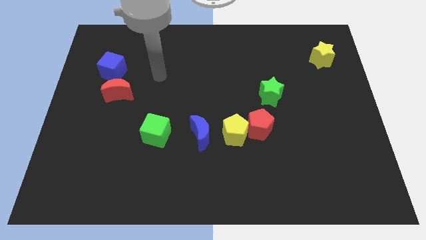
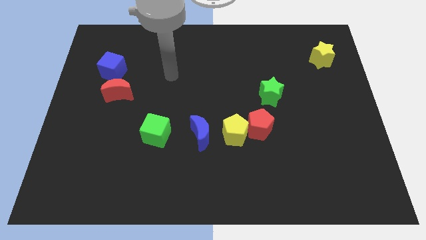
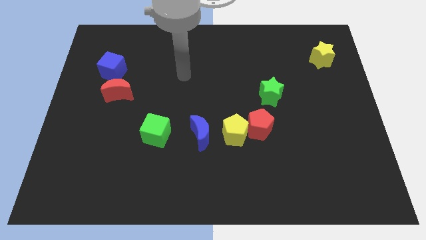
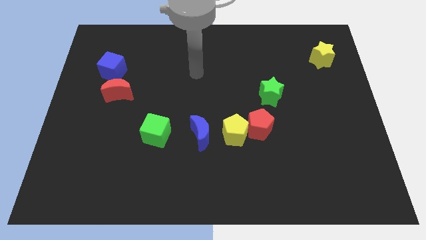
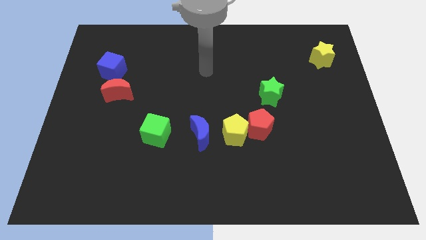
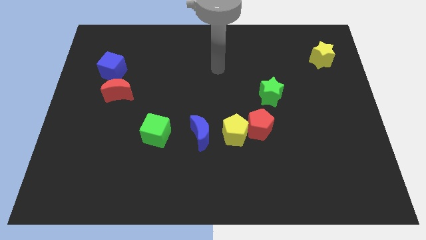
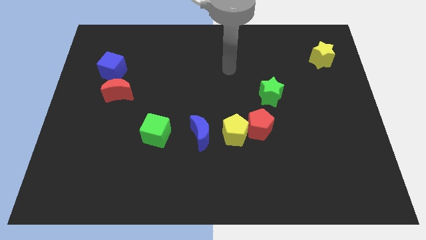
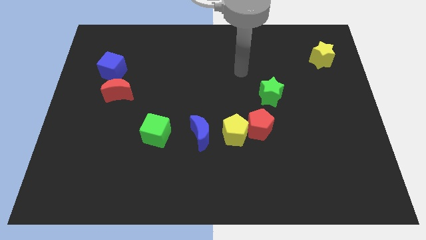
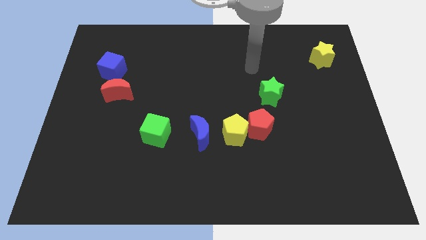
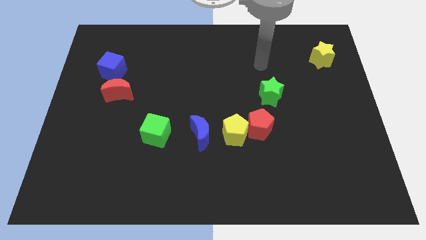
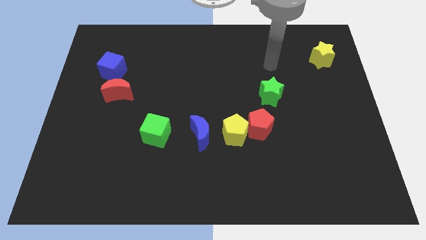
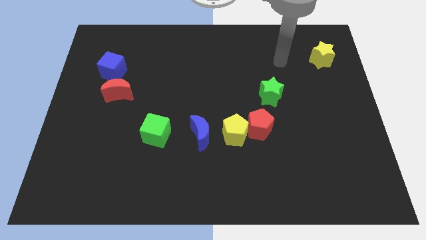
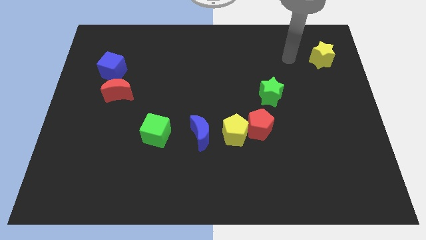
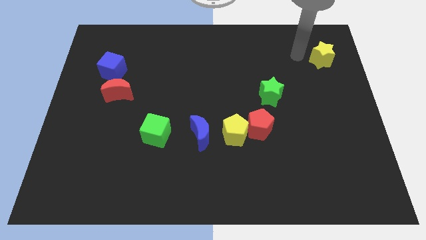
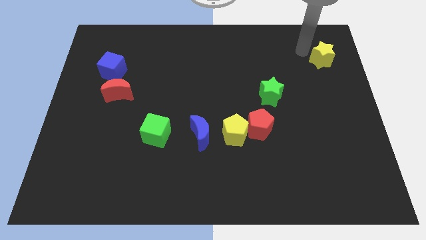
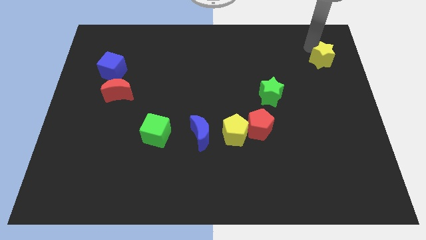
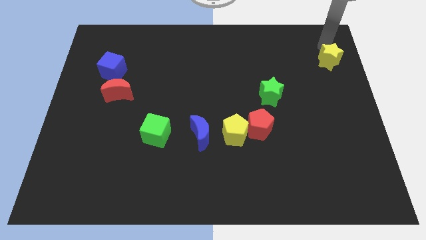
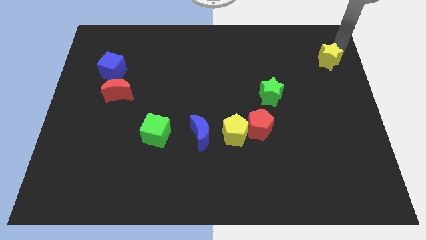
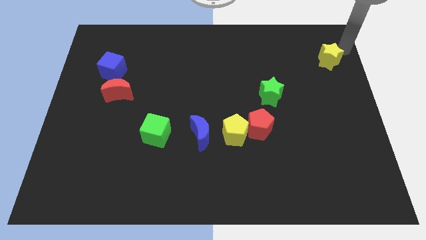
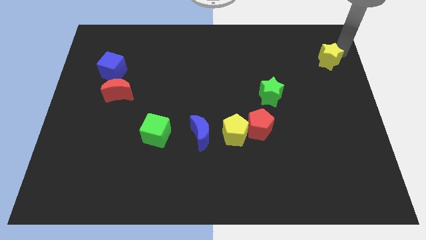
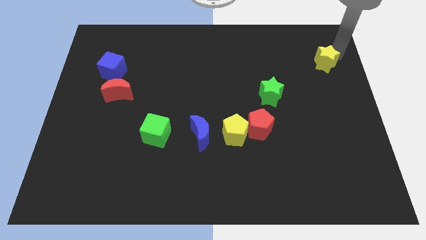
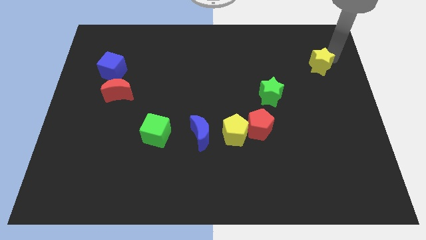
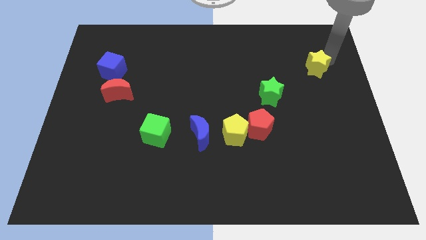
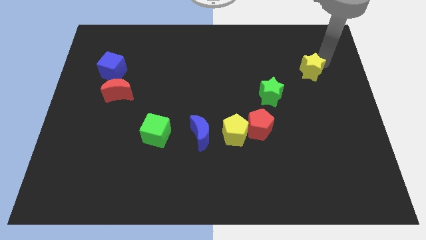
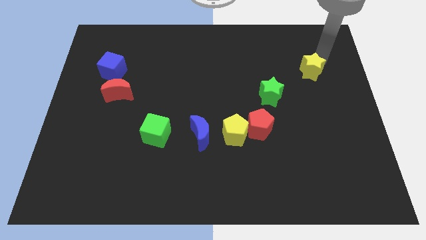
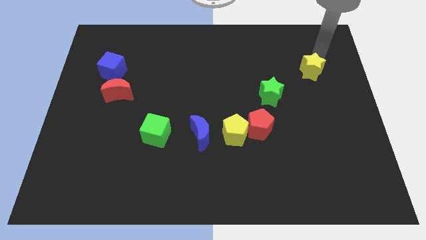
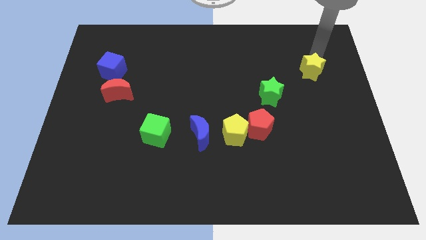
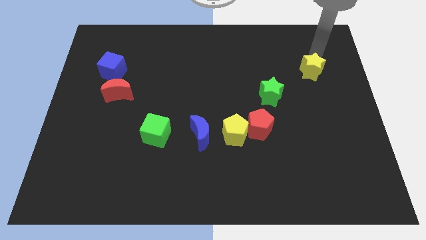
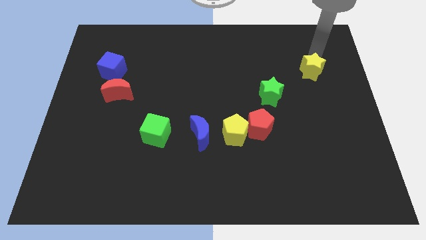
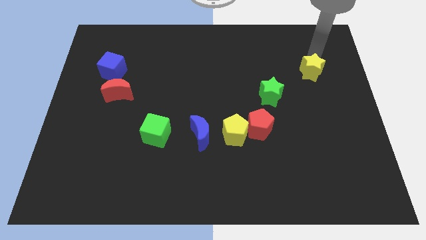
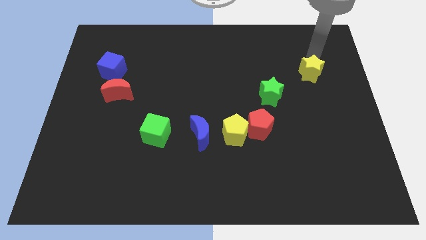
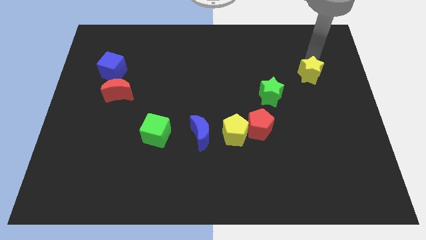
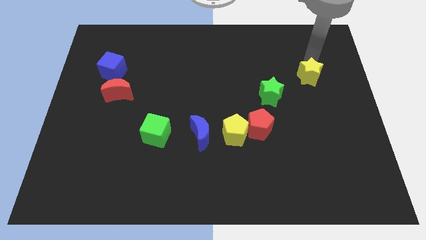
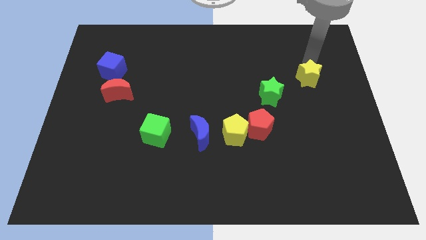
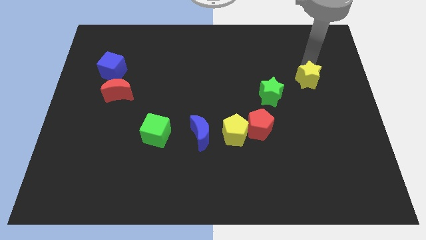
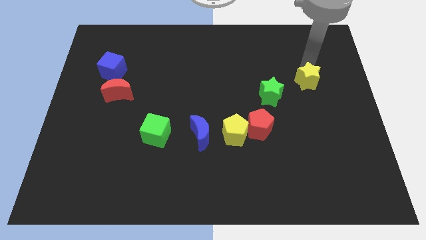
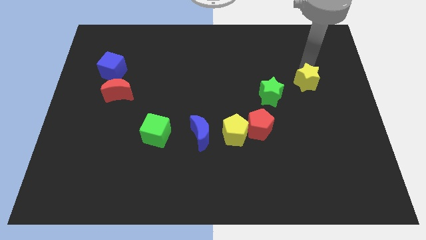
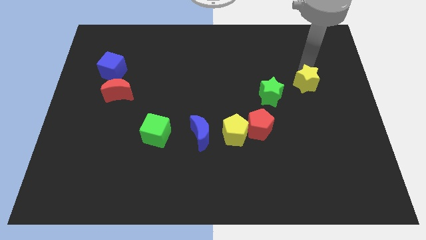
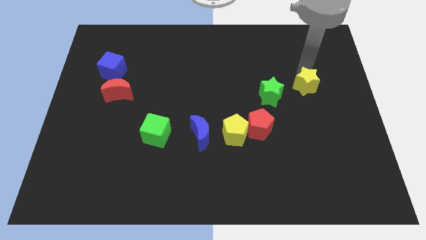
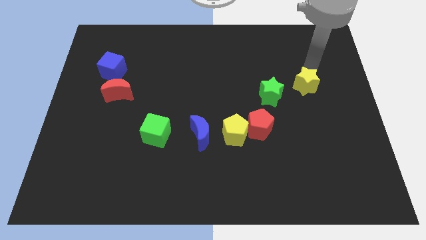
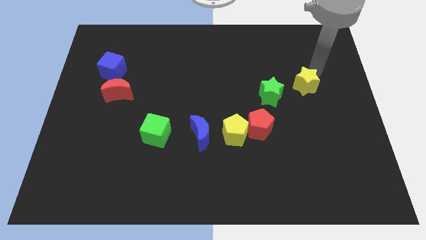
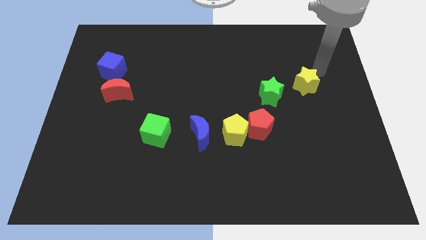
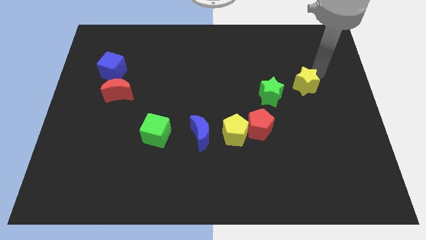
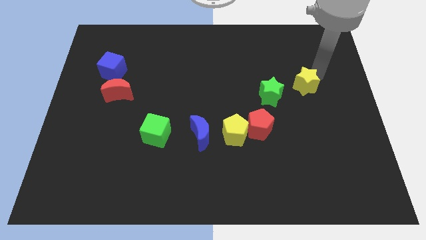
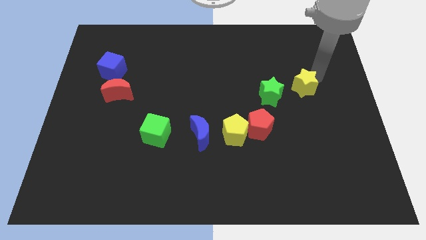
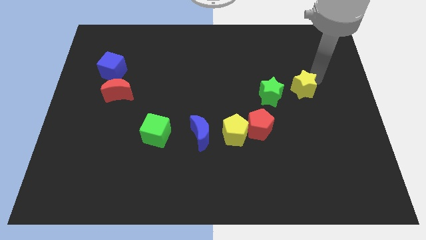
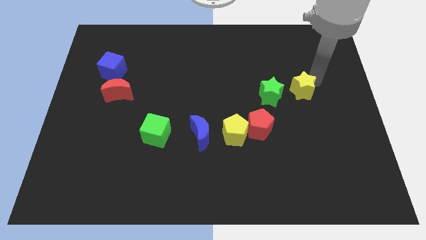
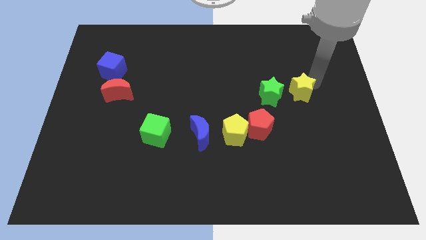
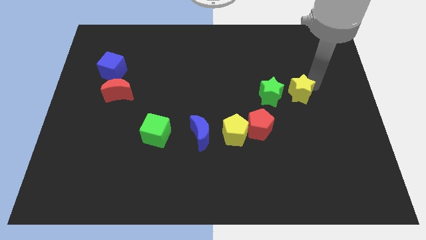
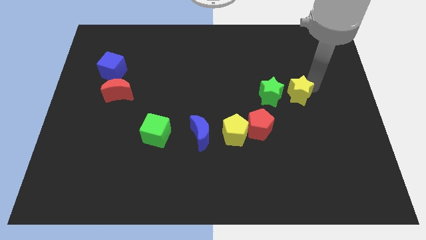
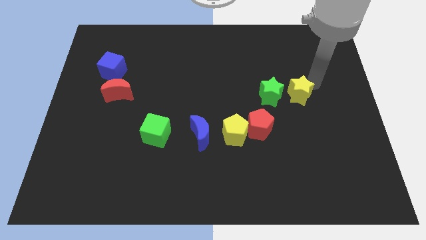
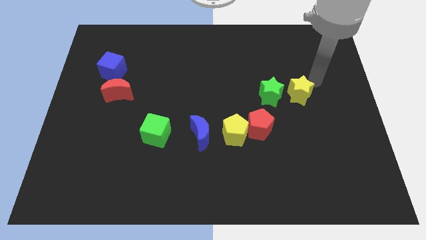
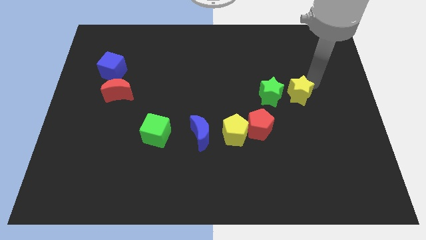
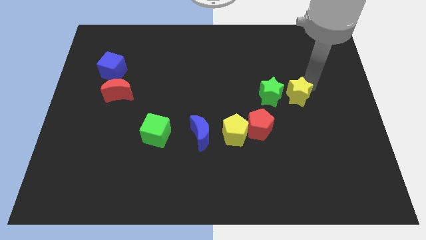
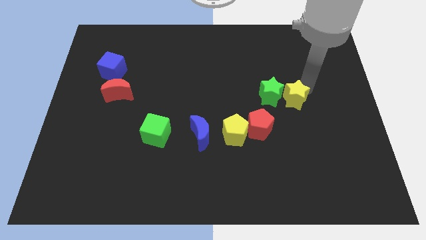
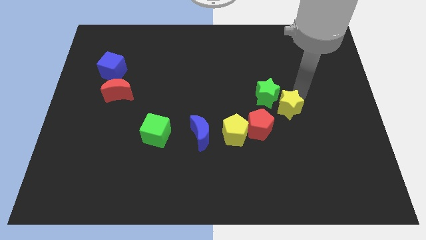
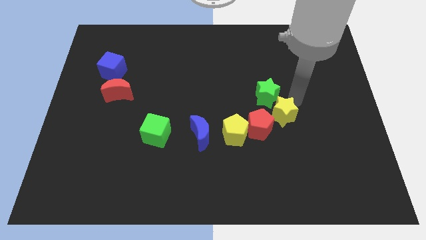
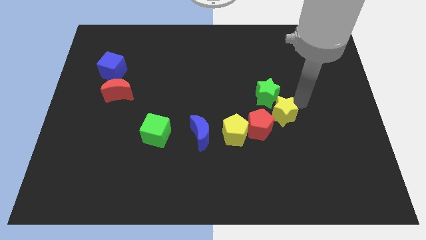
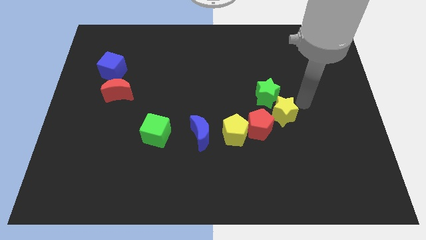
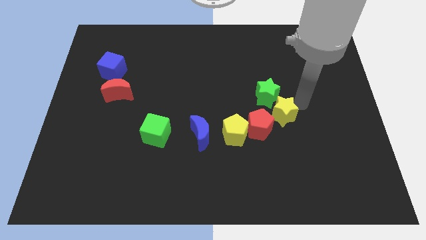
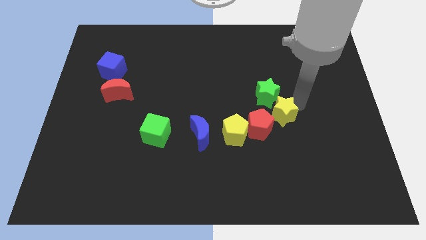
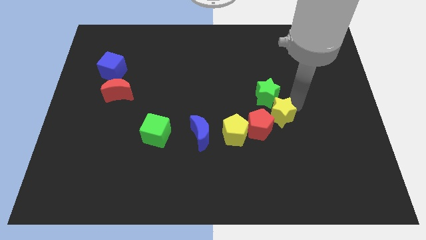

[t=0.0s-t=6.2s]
push the yellow star towards the red pentagon

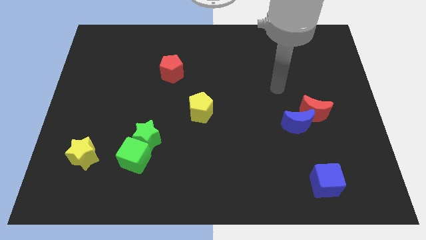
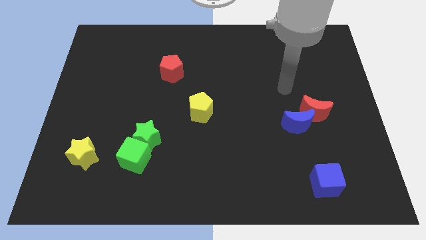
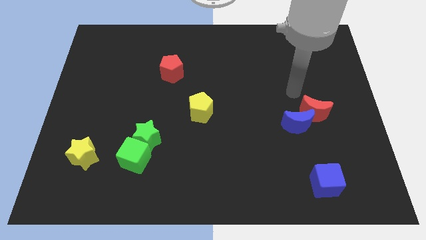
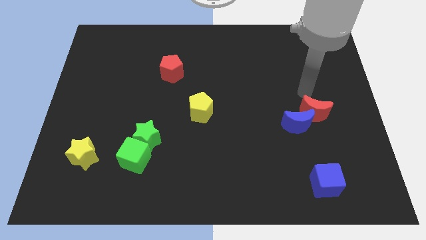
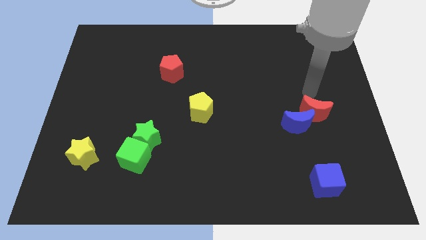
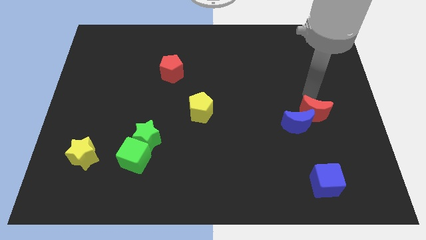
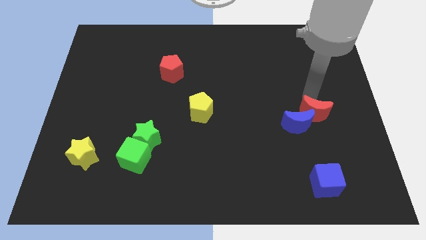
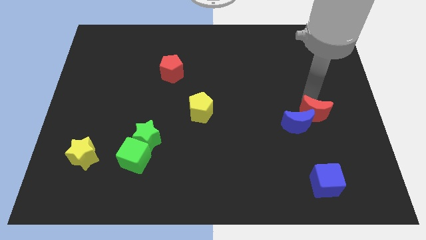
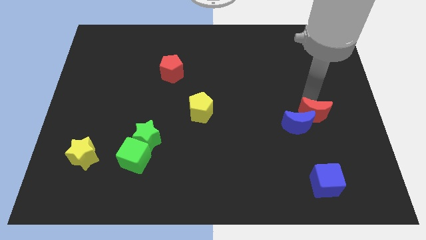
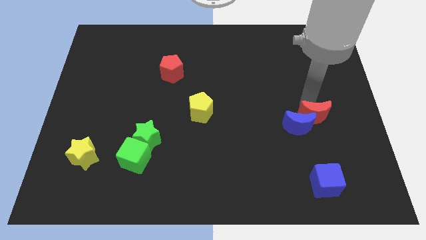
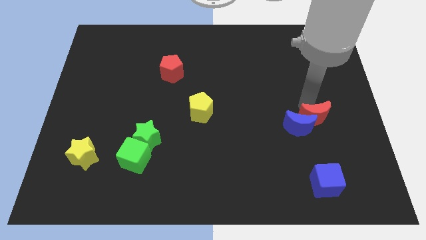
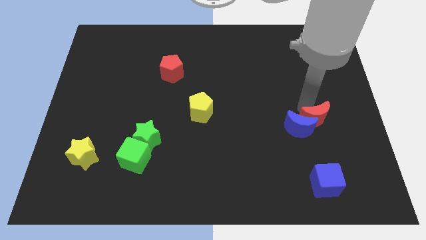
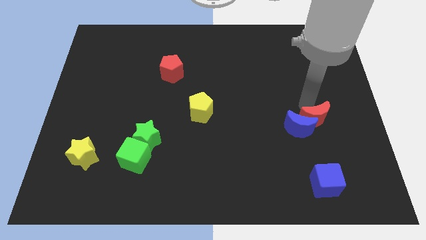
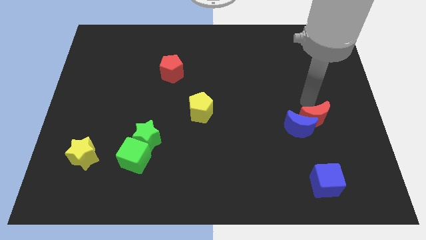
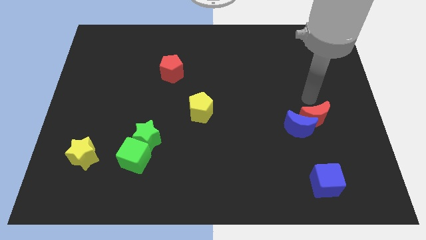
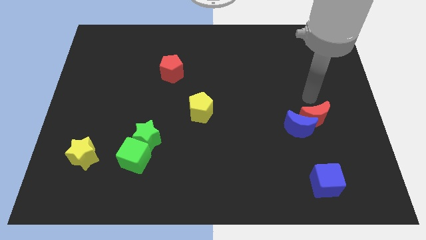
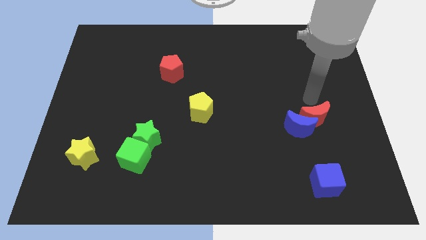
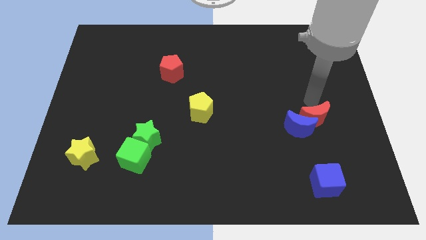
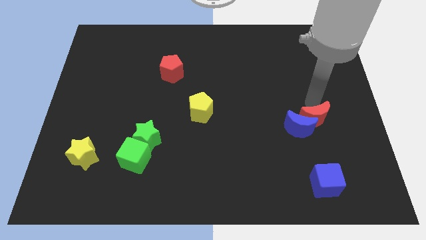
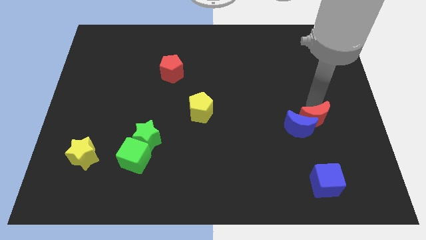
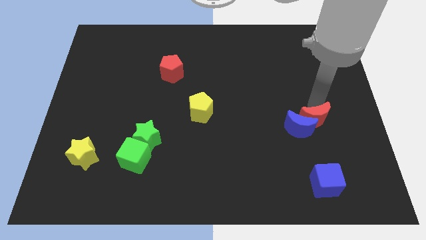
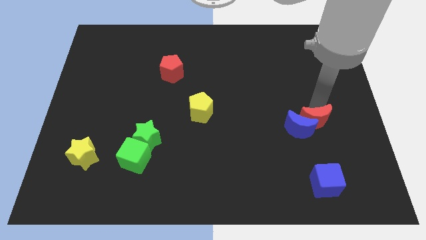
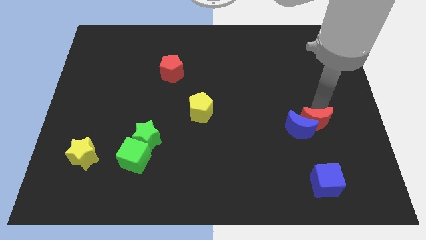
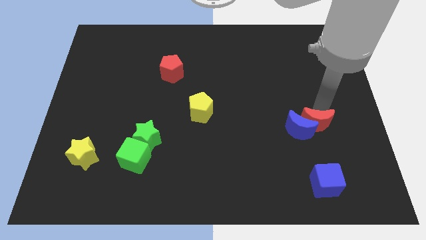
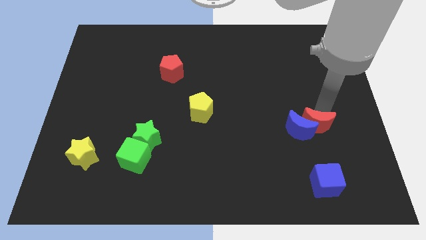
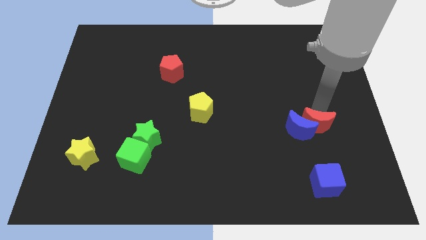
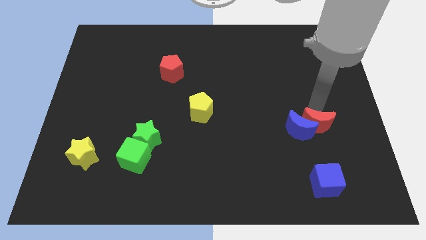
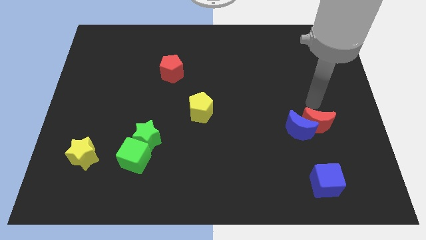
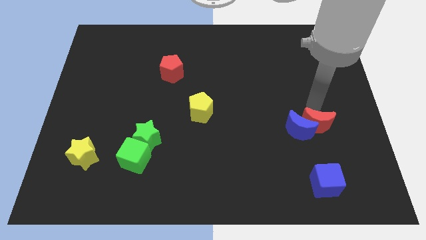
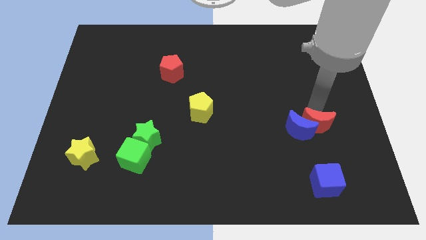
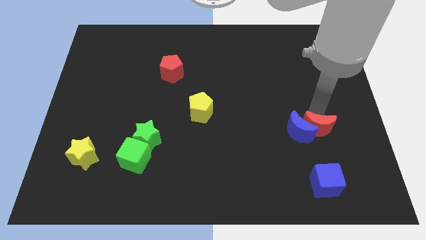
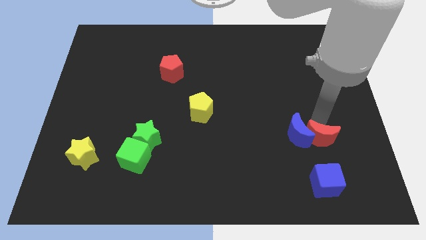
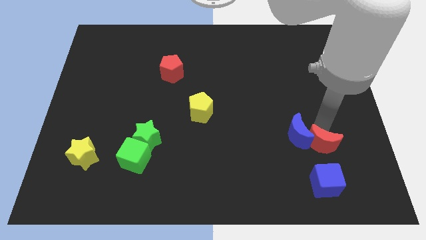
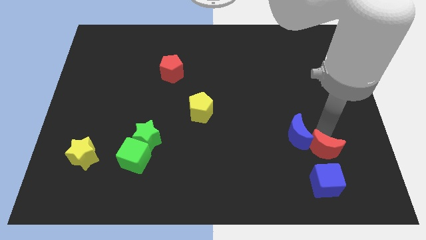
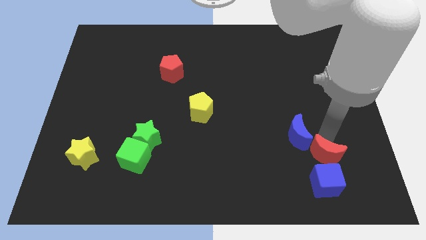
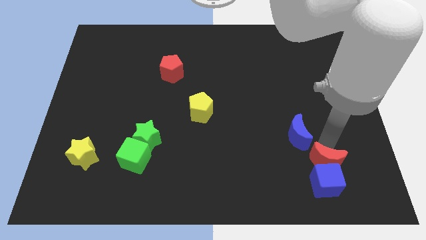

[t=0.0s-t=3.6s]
slide the red moon close to the blue cube
